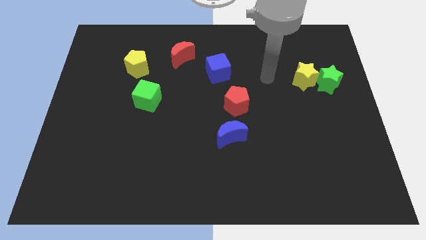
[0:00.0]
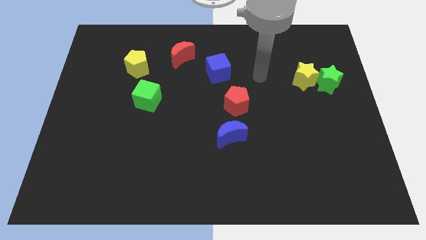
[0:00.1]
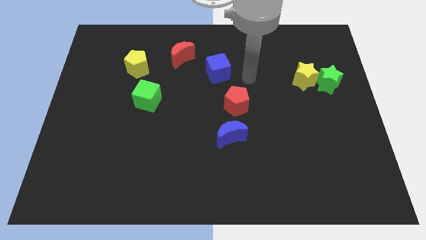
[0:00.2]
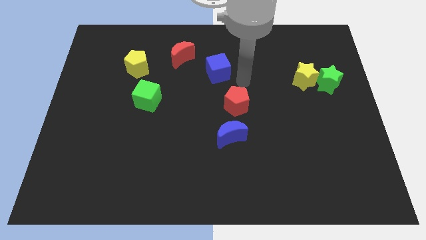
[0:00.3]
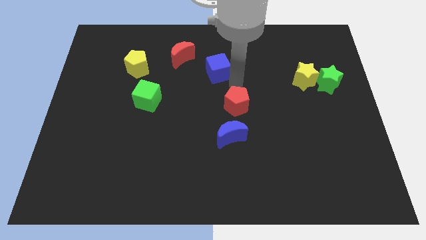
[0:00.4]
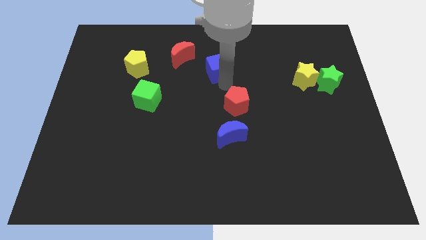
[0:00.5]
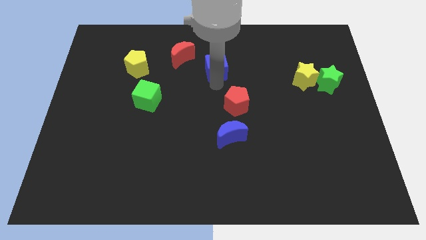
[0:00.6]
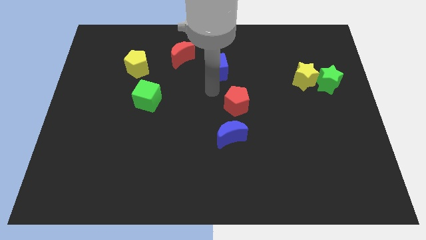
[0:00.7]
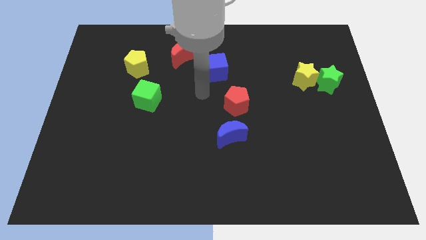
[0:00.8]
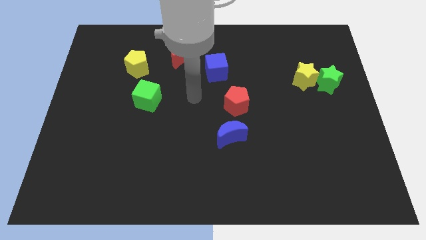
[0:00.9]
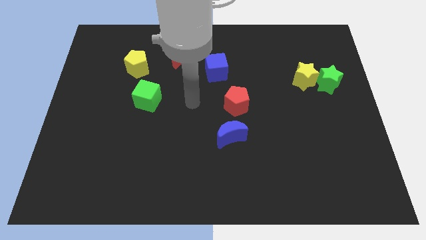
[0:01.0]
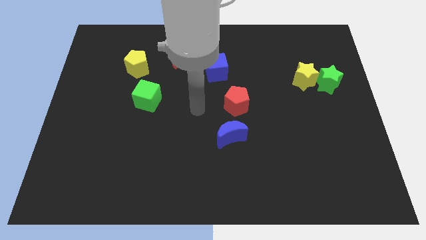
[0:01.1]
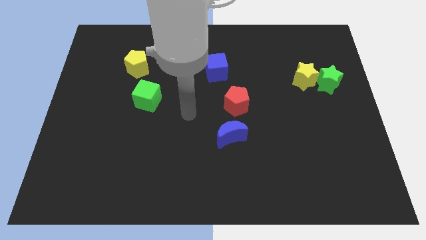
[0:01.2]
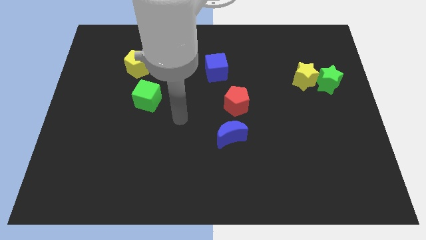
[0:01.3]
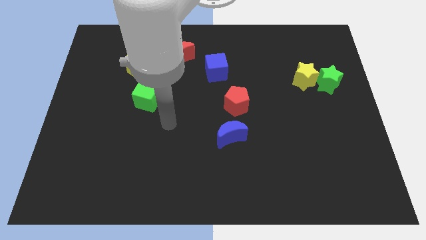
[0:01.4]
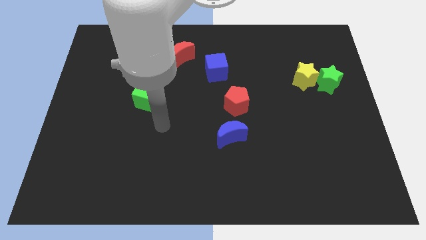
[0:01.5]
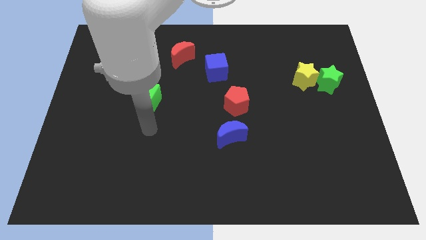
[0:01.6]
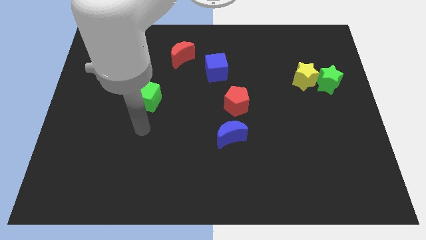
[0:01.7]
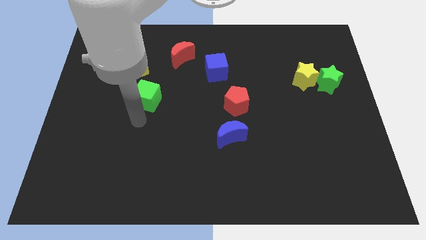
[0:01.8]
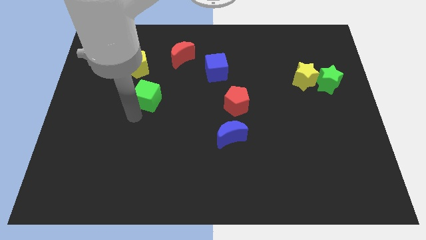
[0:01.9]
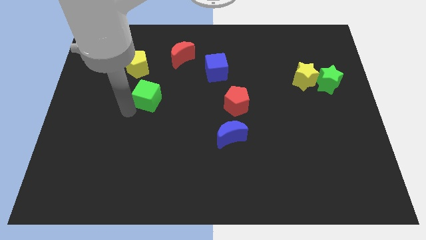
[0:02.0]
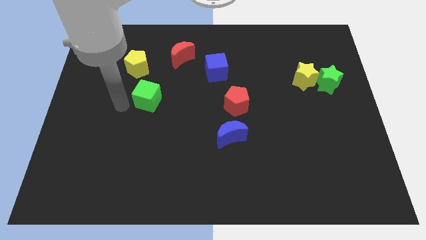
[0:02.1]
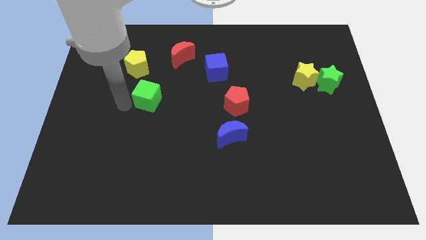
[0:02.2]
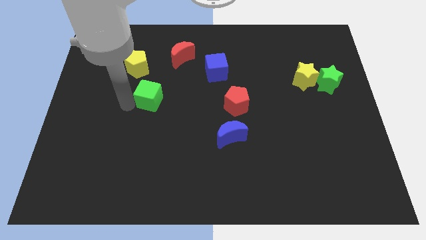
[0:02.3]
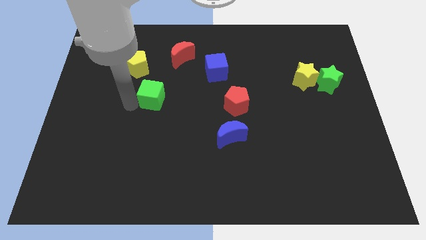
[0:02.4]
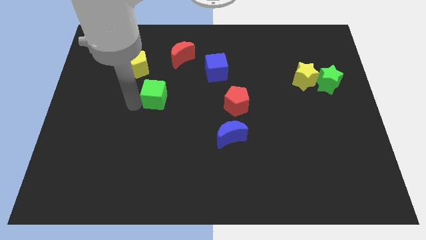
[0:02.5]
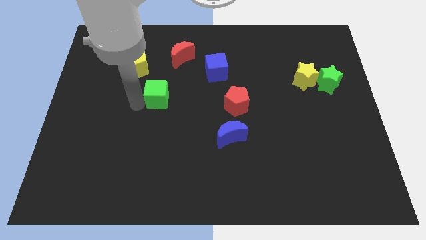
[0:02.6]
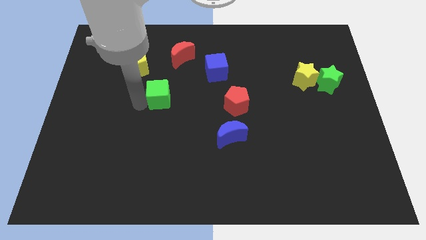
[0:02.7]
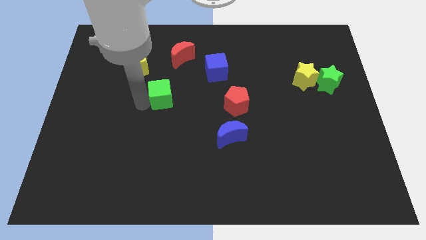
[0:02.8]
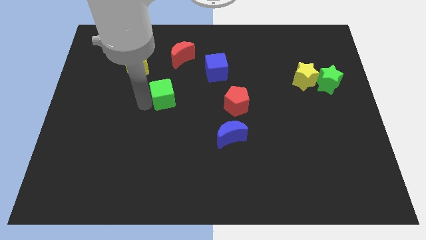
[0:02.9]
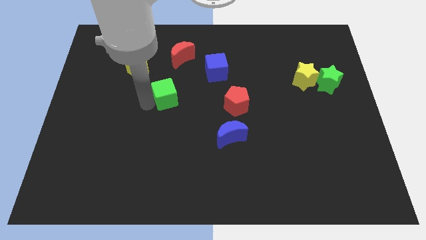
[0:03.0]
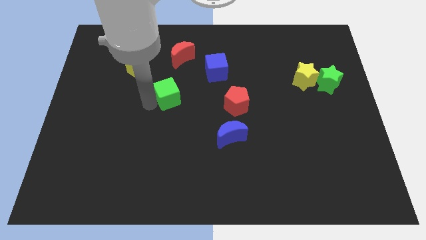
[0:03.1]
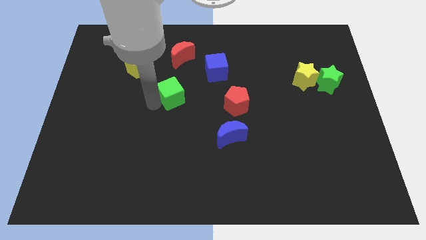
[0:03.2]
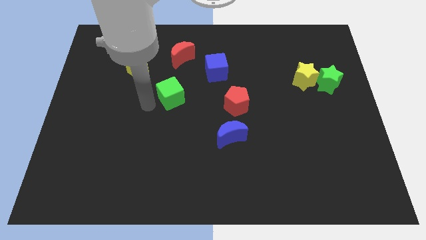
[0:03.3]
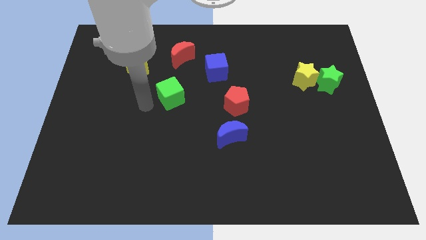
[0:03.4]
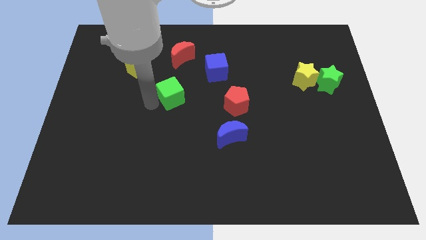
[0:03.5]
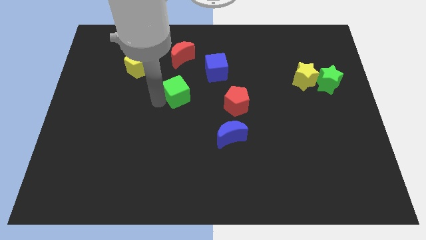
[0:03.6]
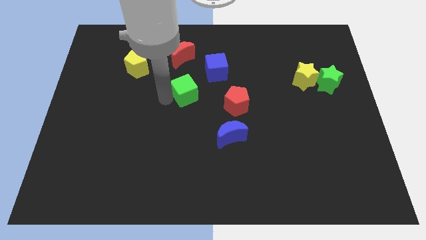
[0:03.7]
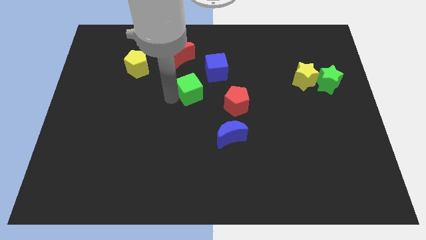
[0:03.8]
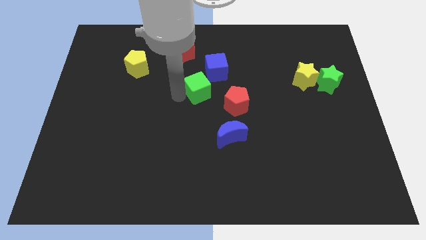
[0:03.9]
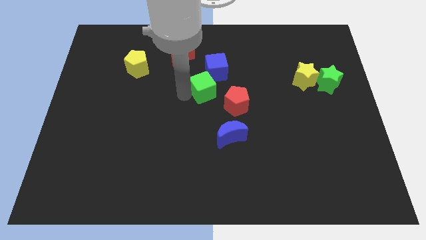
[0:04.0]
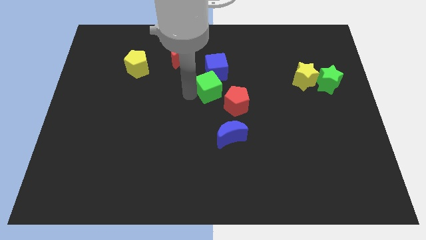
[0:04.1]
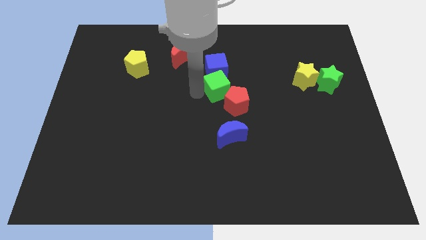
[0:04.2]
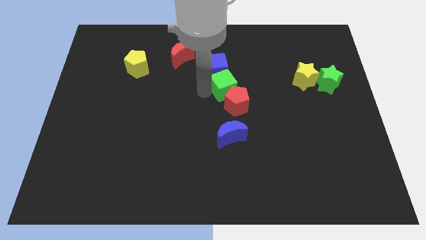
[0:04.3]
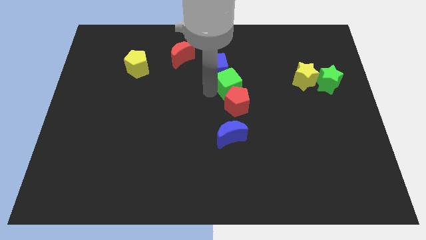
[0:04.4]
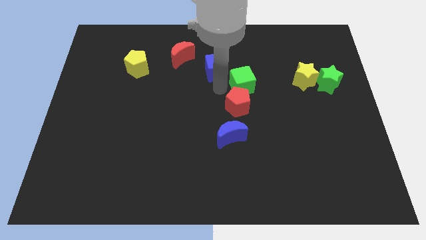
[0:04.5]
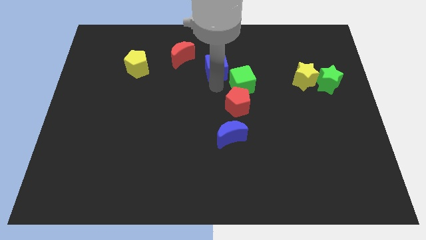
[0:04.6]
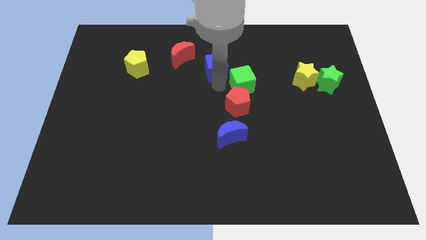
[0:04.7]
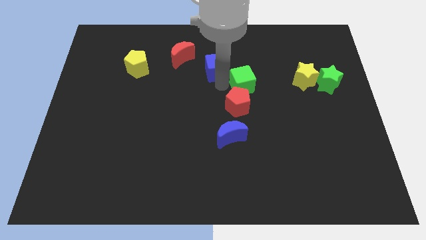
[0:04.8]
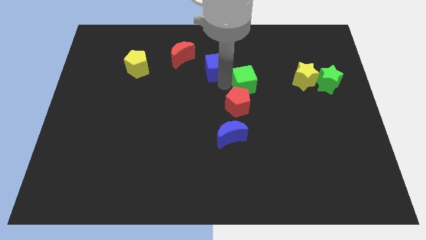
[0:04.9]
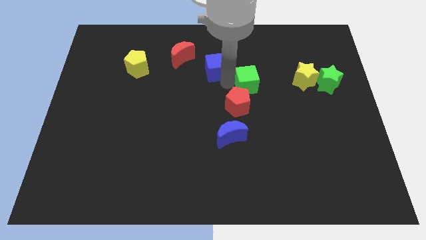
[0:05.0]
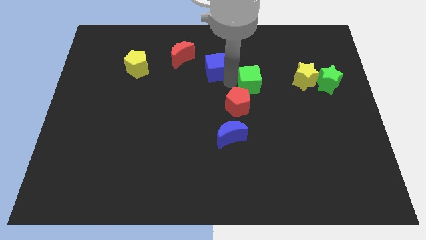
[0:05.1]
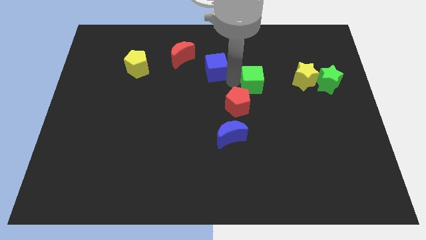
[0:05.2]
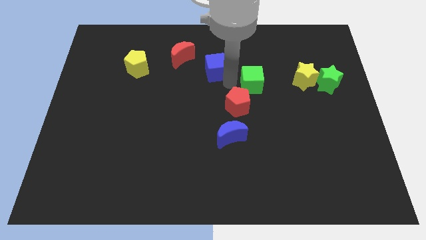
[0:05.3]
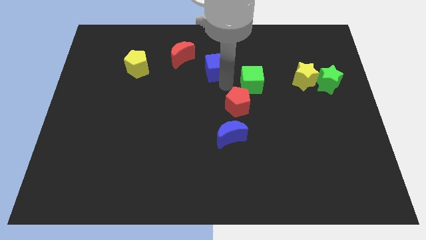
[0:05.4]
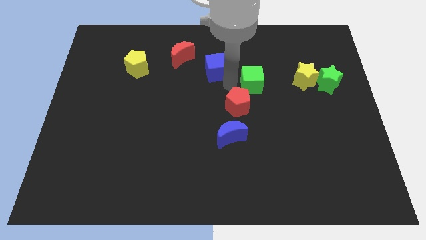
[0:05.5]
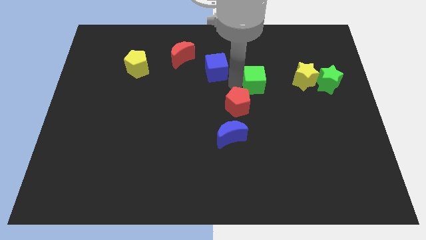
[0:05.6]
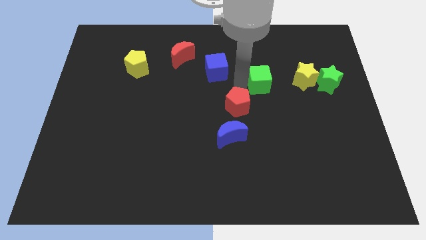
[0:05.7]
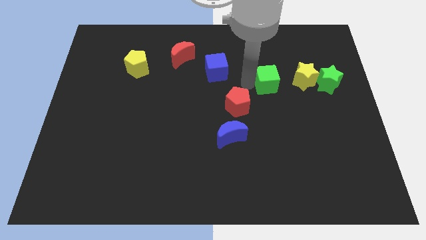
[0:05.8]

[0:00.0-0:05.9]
push the green cube just left of the green star

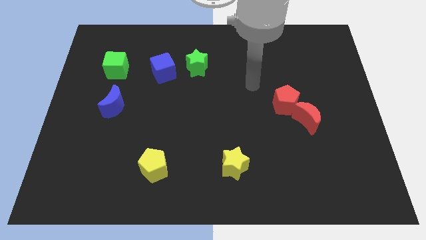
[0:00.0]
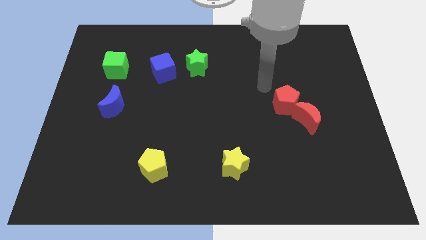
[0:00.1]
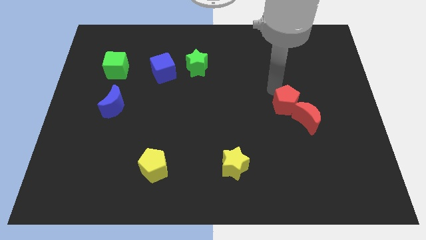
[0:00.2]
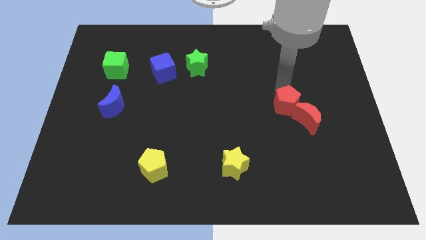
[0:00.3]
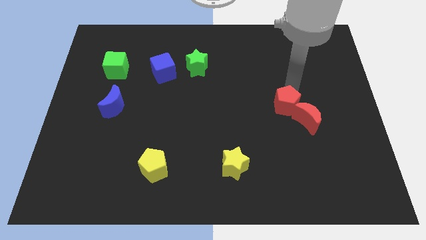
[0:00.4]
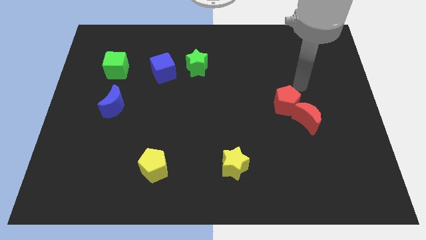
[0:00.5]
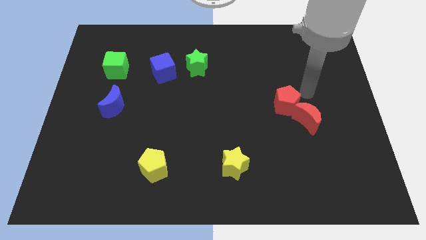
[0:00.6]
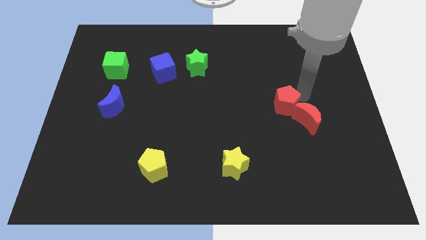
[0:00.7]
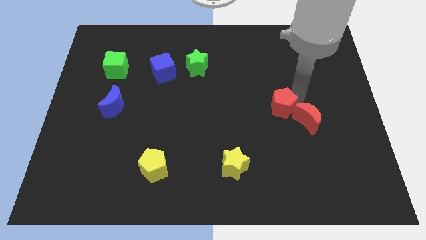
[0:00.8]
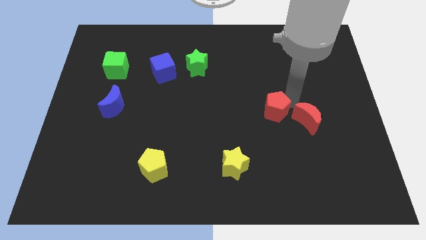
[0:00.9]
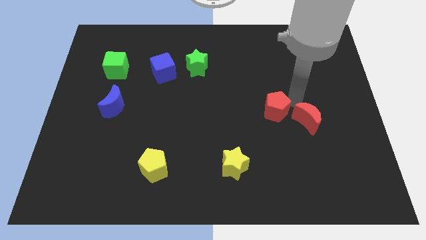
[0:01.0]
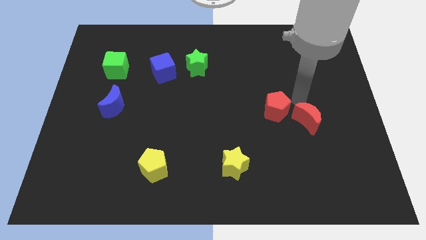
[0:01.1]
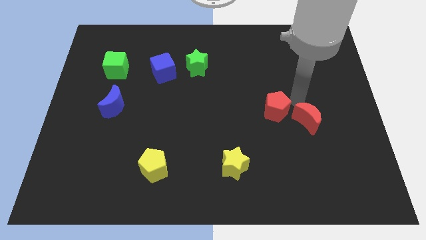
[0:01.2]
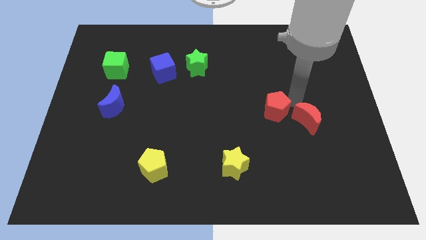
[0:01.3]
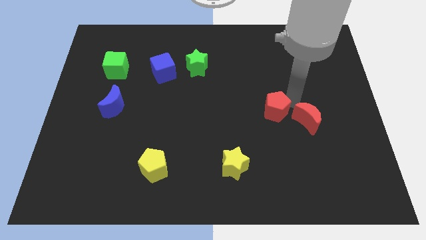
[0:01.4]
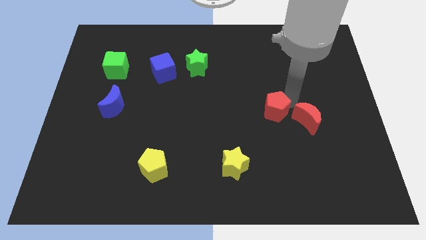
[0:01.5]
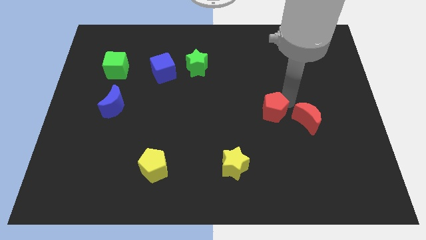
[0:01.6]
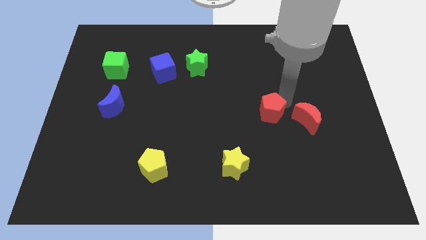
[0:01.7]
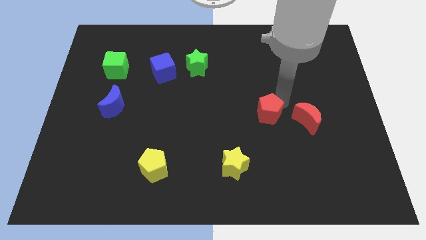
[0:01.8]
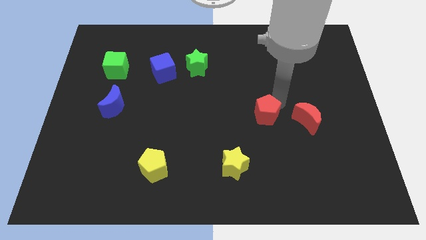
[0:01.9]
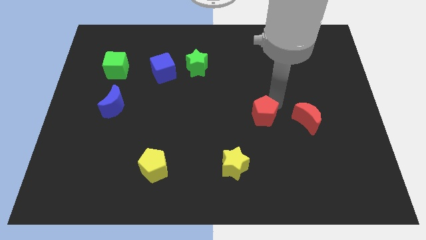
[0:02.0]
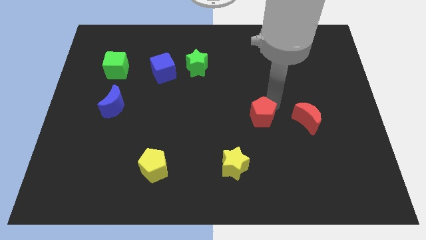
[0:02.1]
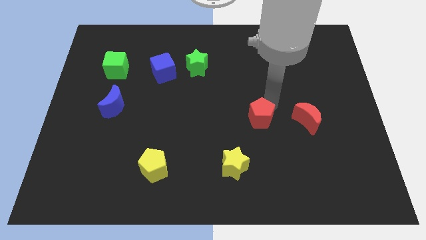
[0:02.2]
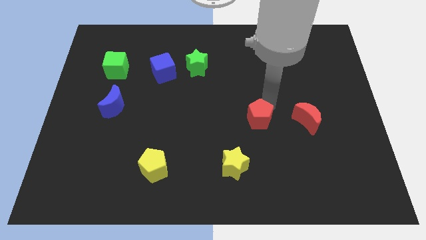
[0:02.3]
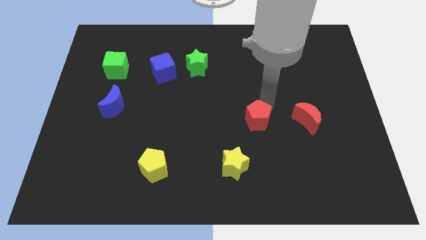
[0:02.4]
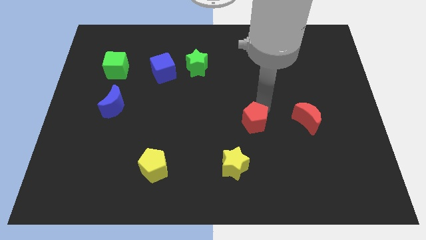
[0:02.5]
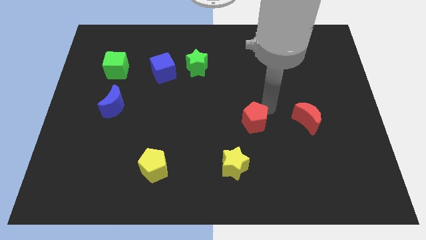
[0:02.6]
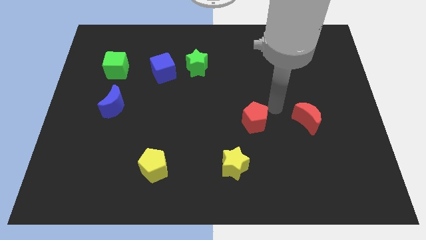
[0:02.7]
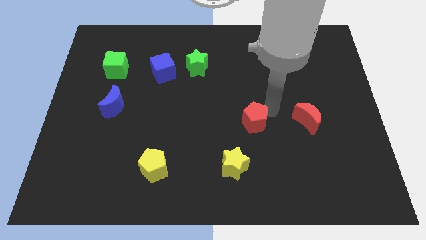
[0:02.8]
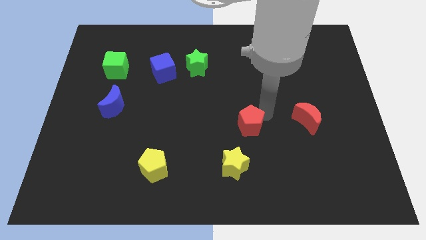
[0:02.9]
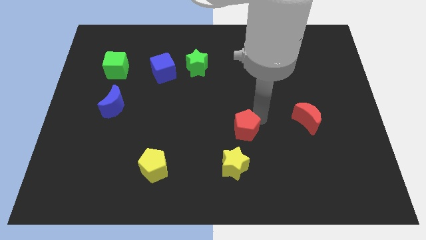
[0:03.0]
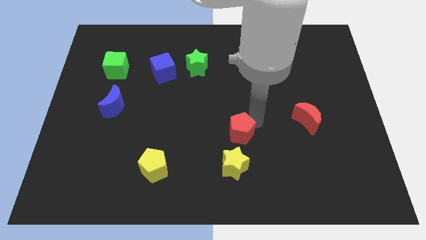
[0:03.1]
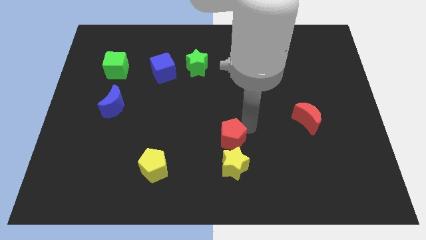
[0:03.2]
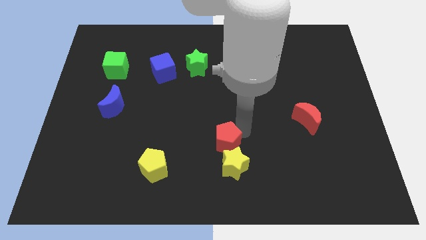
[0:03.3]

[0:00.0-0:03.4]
slide the red pentagon diagonally up and to the left of the yellow star
